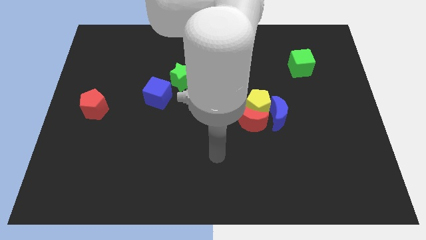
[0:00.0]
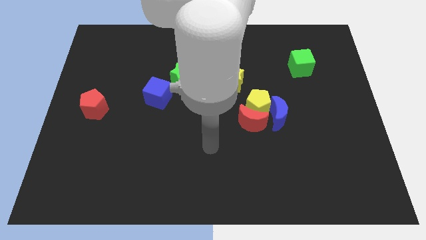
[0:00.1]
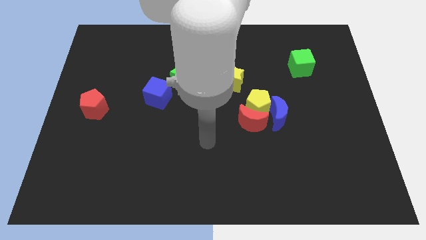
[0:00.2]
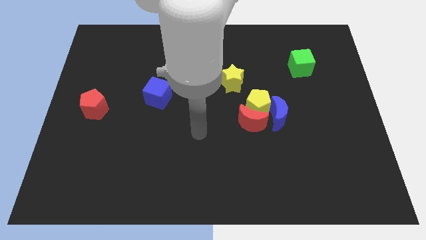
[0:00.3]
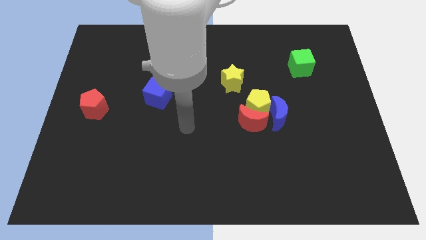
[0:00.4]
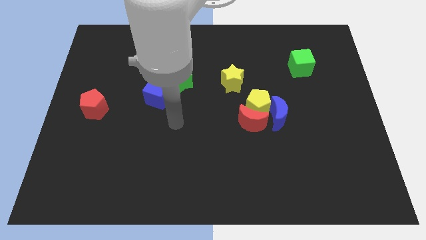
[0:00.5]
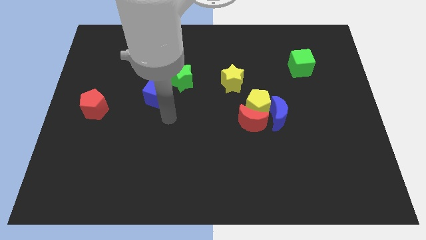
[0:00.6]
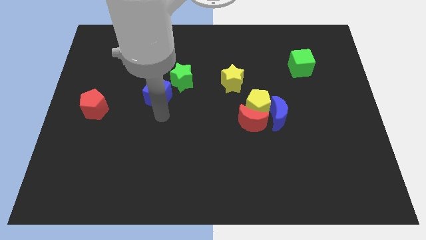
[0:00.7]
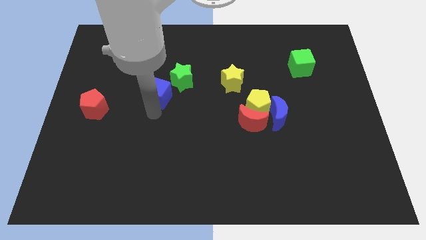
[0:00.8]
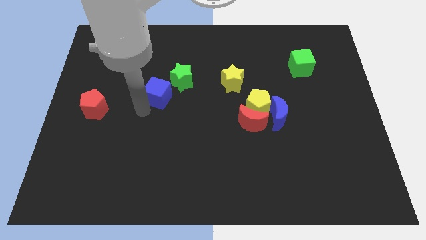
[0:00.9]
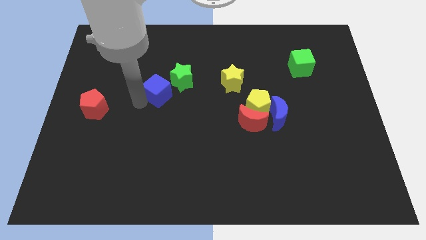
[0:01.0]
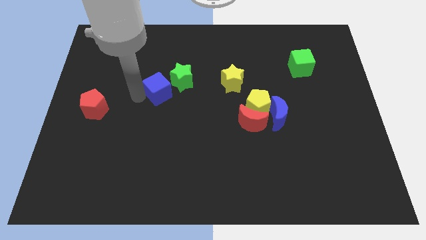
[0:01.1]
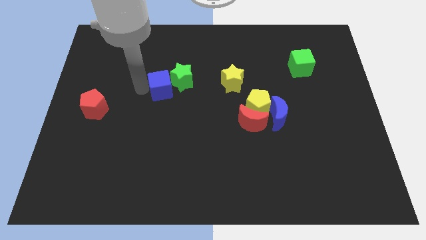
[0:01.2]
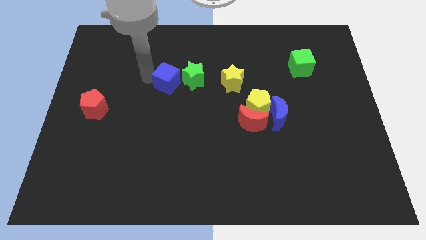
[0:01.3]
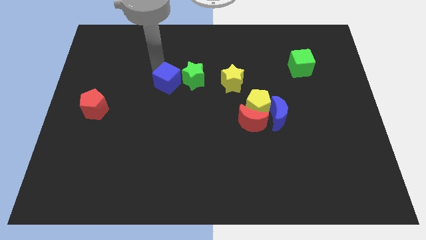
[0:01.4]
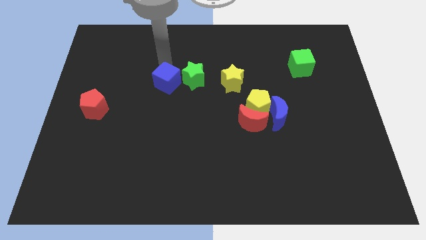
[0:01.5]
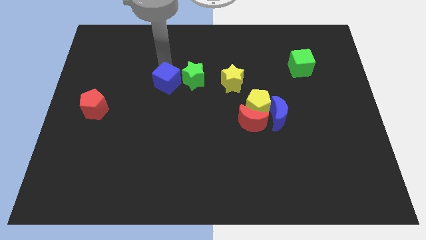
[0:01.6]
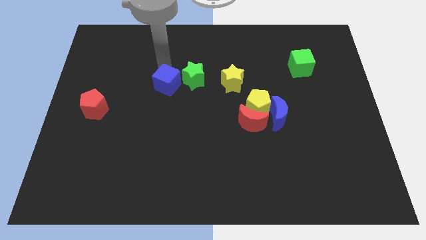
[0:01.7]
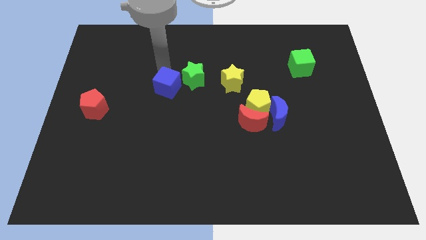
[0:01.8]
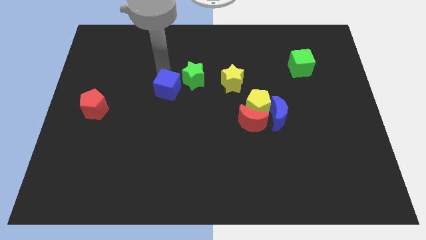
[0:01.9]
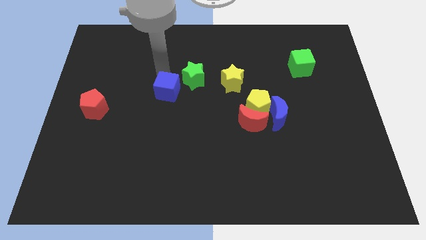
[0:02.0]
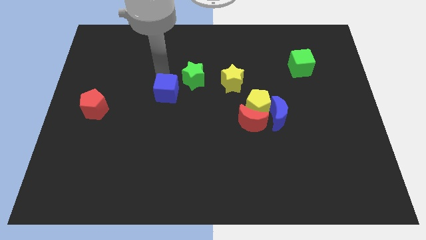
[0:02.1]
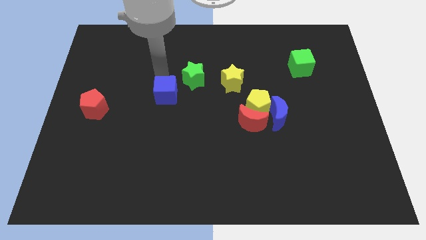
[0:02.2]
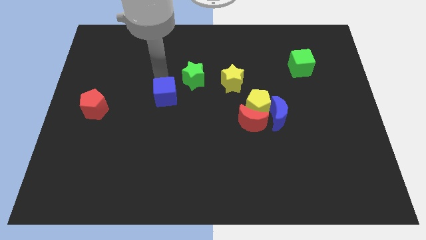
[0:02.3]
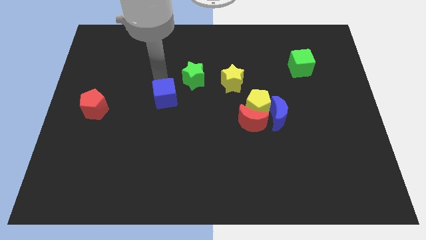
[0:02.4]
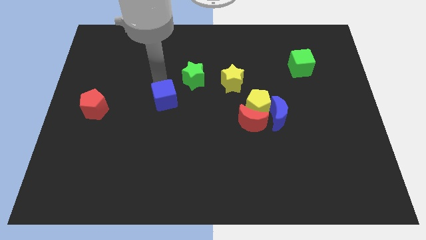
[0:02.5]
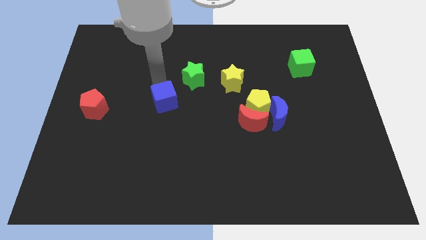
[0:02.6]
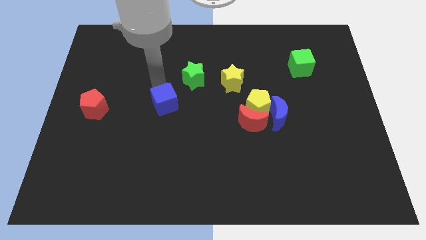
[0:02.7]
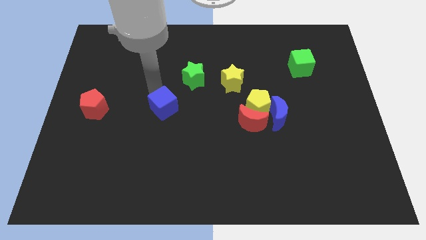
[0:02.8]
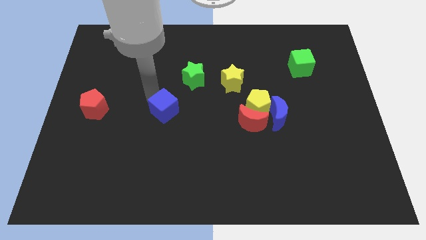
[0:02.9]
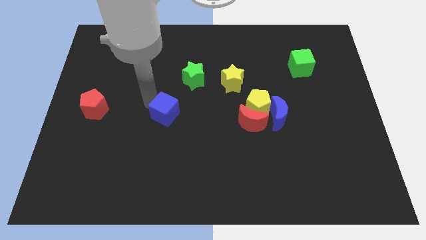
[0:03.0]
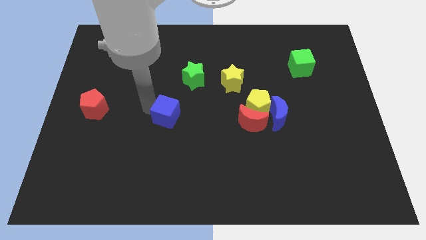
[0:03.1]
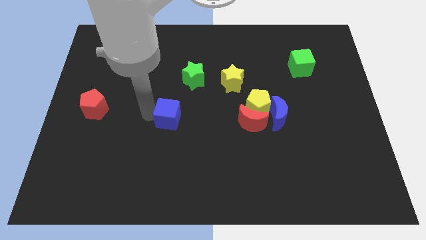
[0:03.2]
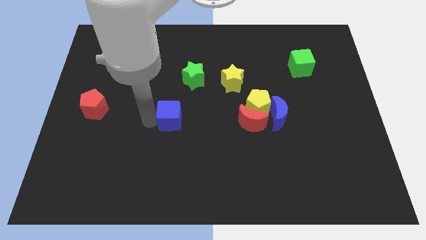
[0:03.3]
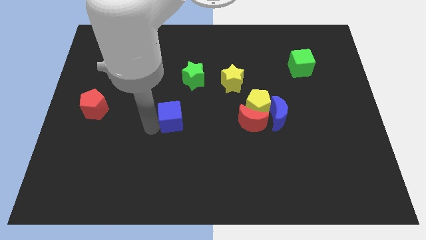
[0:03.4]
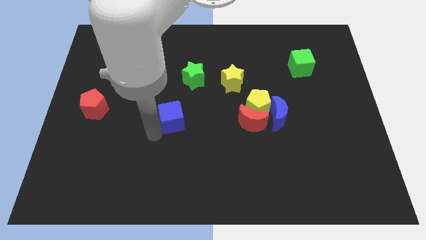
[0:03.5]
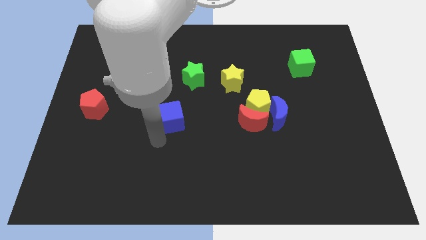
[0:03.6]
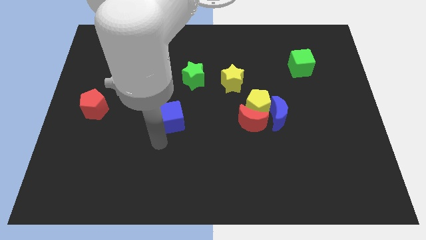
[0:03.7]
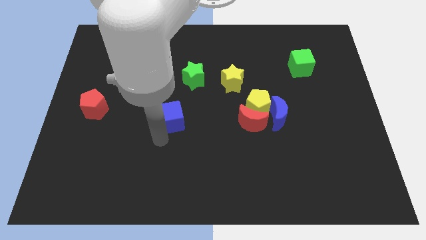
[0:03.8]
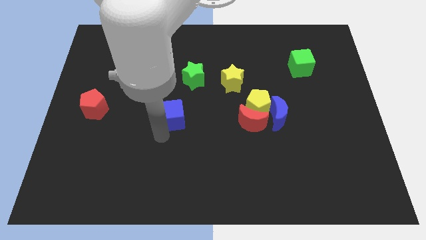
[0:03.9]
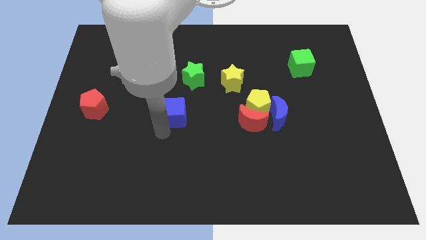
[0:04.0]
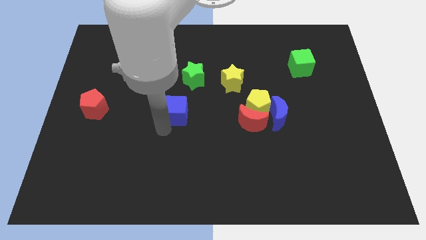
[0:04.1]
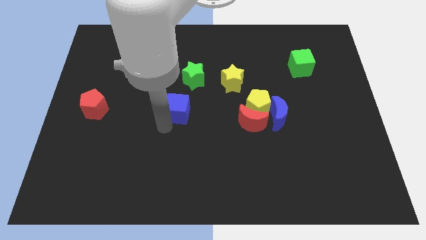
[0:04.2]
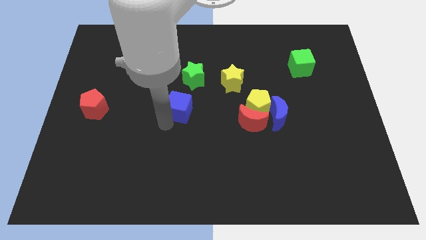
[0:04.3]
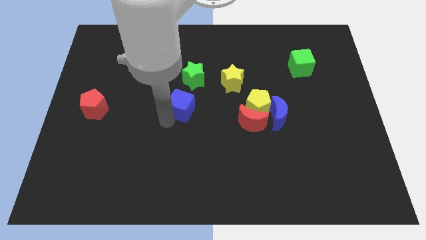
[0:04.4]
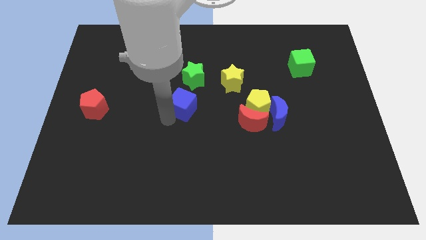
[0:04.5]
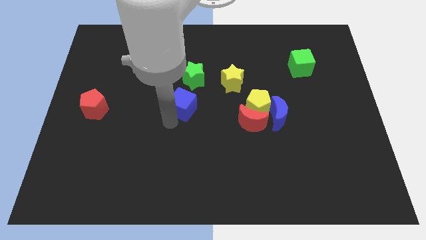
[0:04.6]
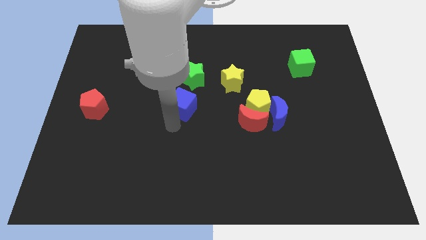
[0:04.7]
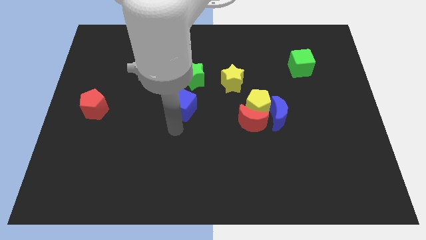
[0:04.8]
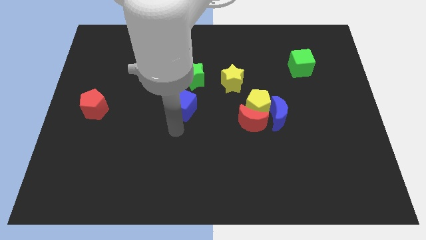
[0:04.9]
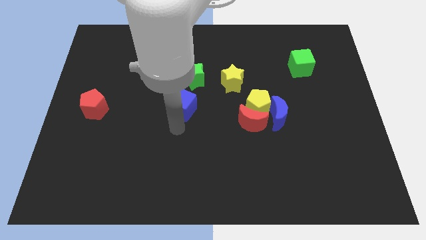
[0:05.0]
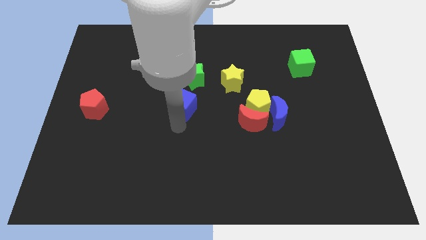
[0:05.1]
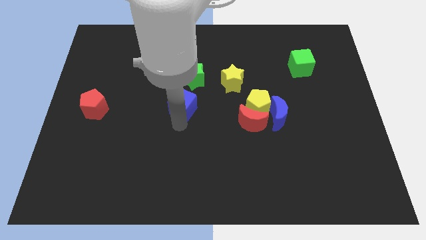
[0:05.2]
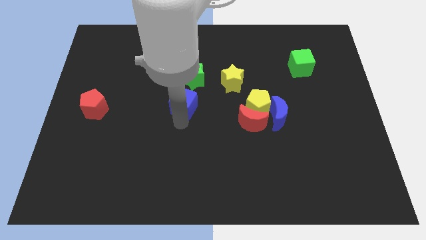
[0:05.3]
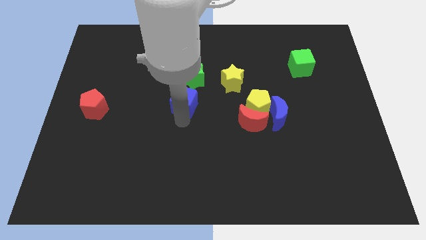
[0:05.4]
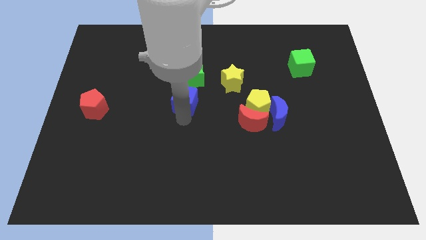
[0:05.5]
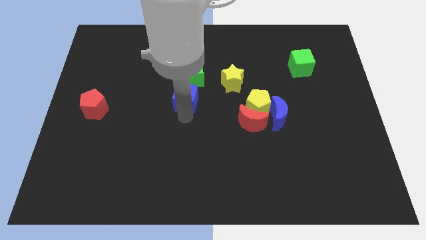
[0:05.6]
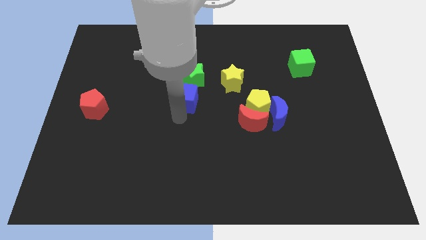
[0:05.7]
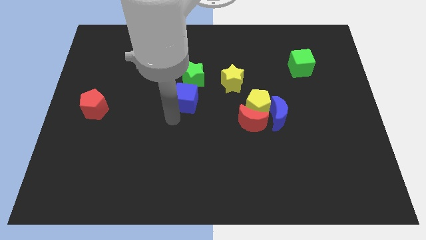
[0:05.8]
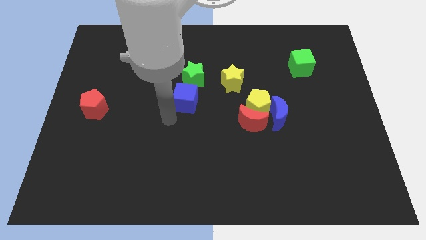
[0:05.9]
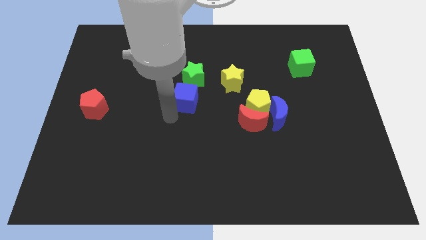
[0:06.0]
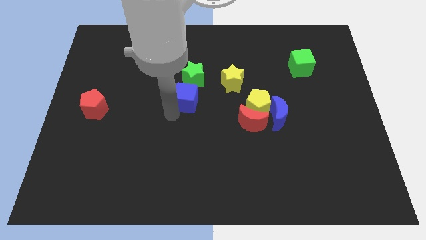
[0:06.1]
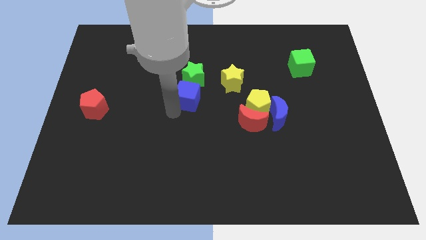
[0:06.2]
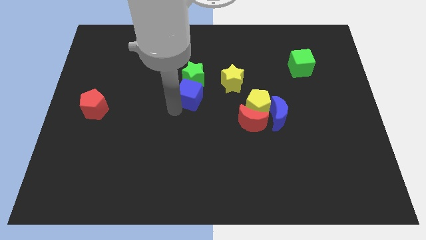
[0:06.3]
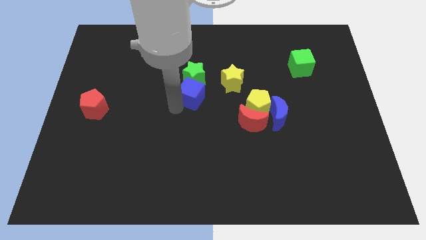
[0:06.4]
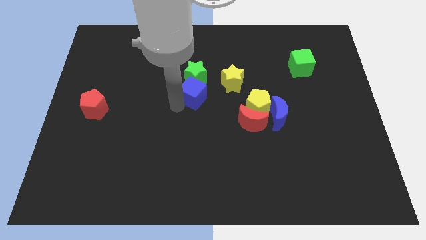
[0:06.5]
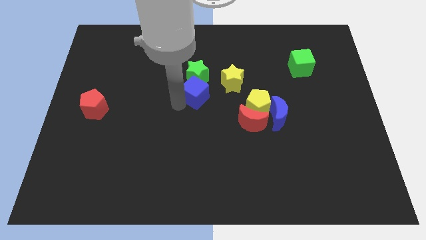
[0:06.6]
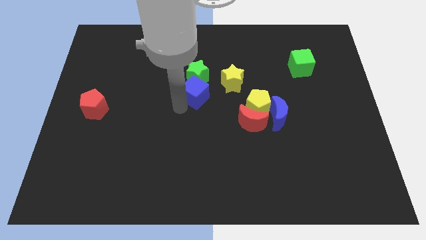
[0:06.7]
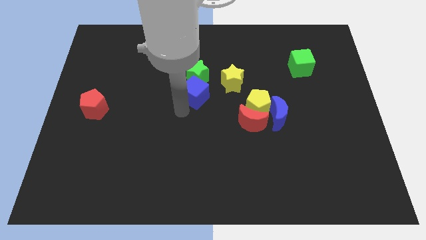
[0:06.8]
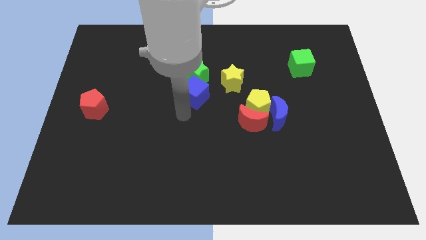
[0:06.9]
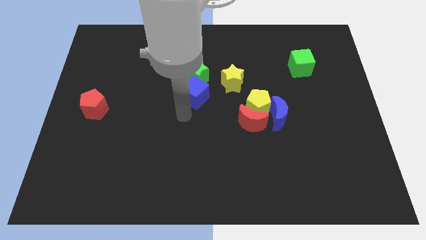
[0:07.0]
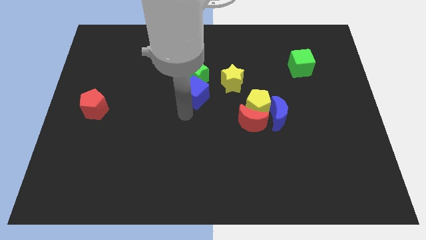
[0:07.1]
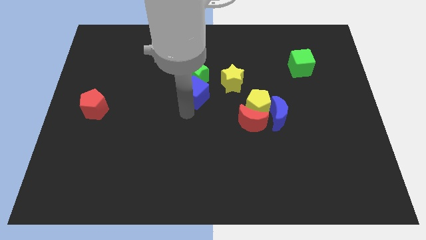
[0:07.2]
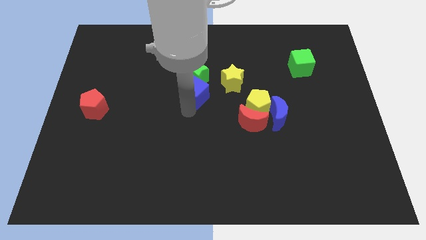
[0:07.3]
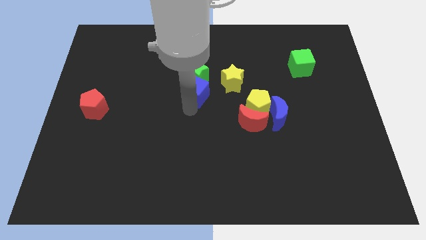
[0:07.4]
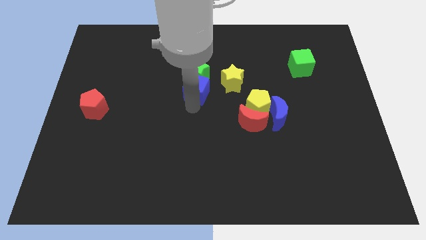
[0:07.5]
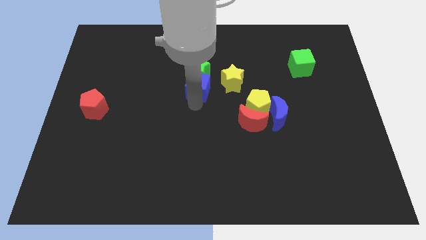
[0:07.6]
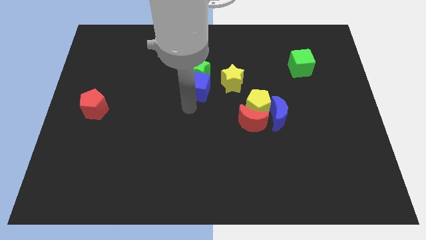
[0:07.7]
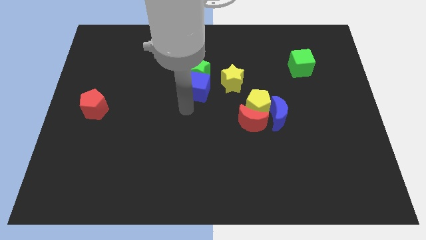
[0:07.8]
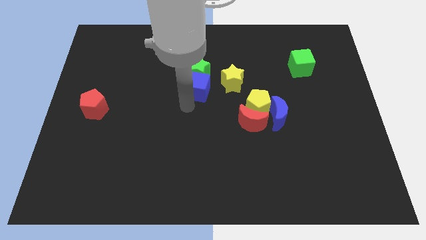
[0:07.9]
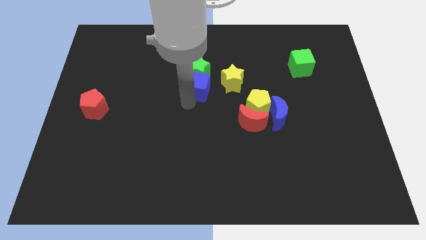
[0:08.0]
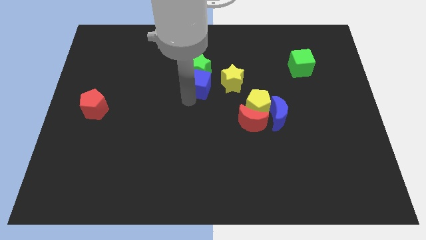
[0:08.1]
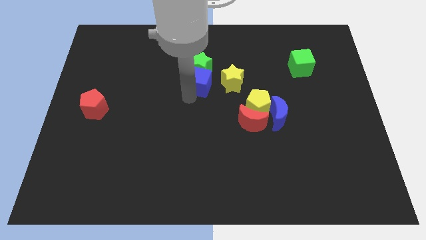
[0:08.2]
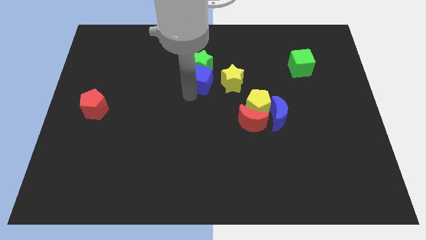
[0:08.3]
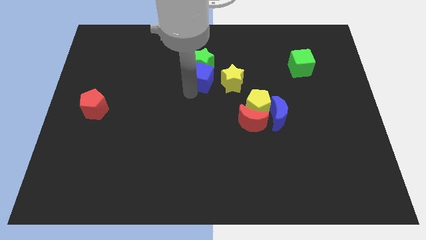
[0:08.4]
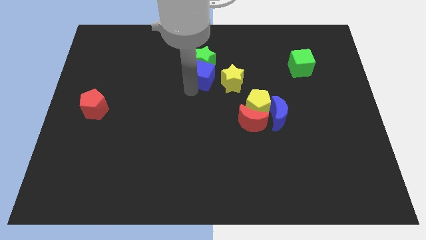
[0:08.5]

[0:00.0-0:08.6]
push the blue cube to the top left side of the yellow star
